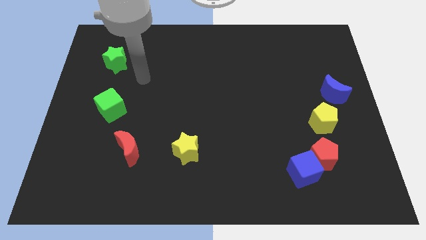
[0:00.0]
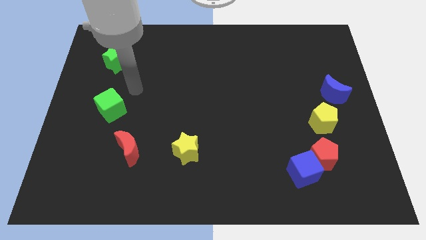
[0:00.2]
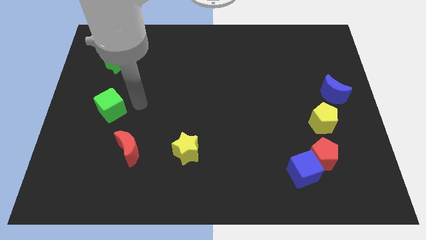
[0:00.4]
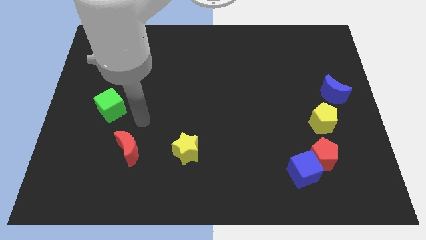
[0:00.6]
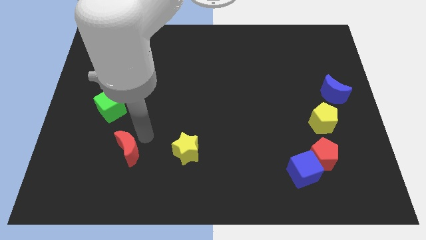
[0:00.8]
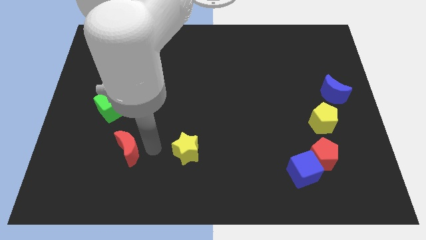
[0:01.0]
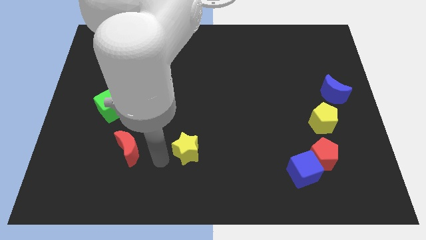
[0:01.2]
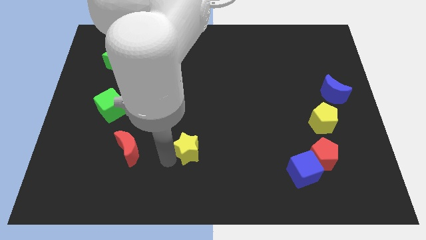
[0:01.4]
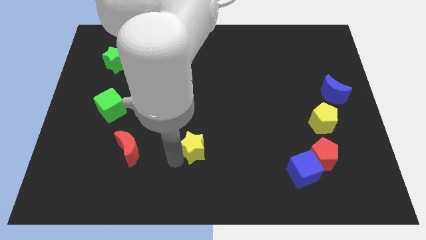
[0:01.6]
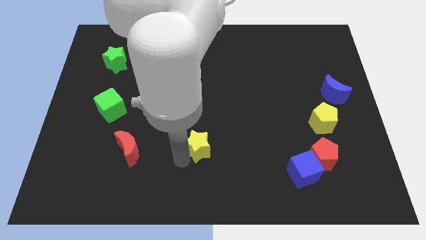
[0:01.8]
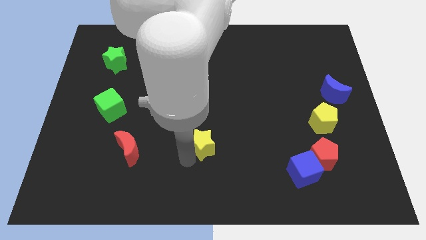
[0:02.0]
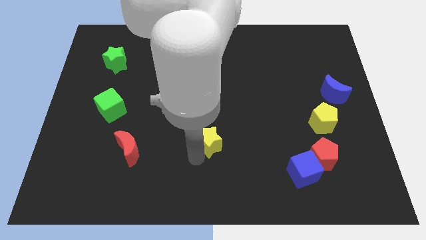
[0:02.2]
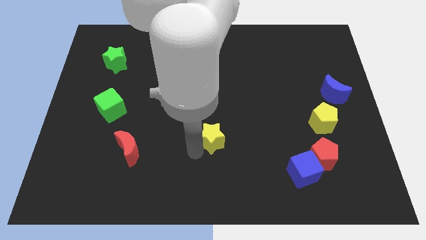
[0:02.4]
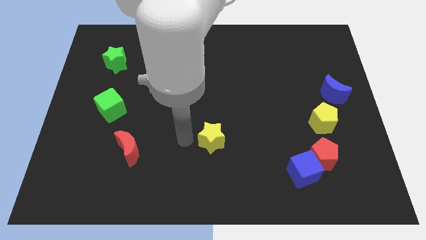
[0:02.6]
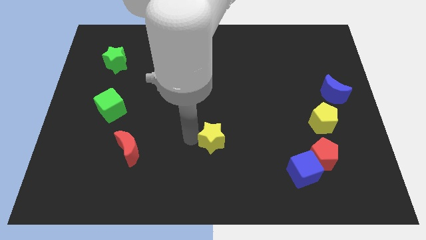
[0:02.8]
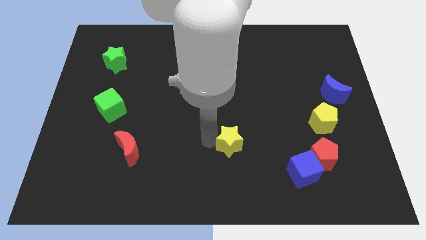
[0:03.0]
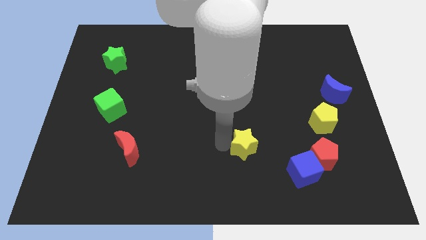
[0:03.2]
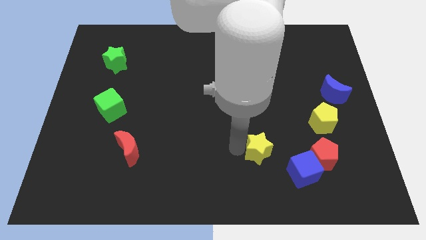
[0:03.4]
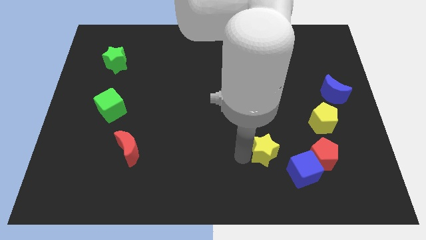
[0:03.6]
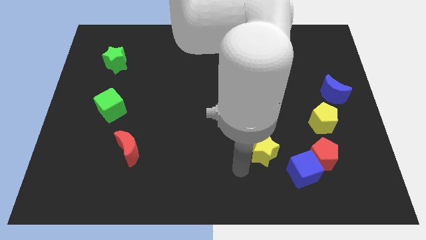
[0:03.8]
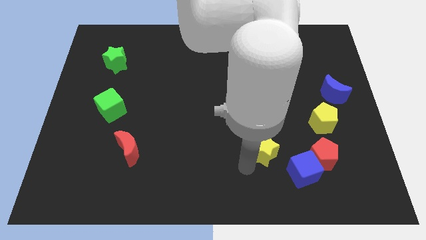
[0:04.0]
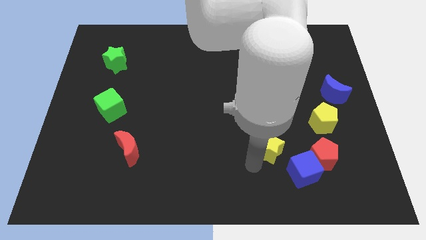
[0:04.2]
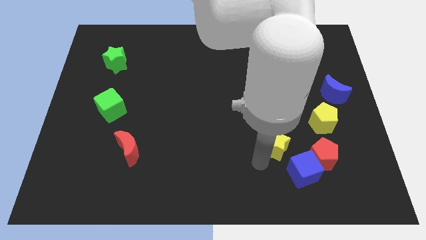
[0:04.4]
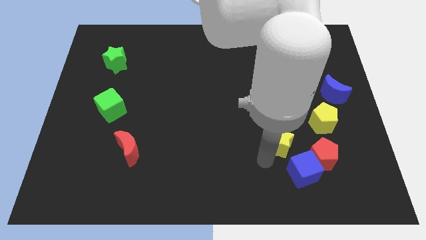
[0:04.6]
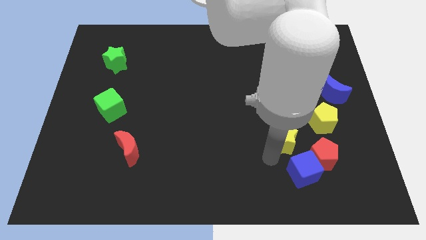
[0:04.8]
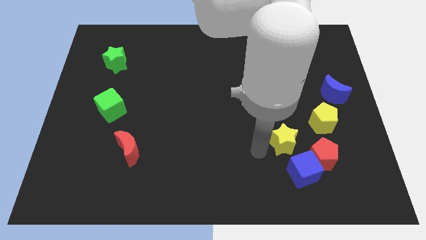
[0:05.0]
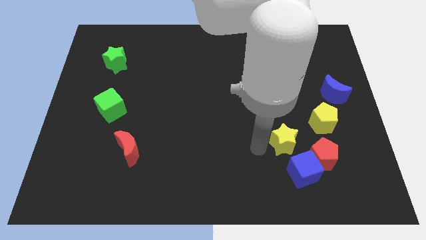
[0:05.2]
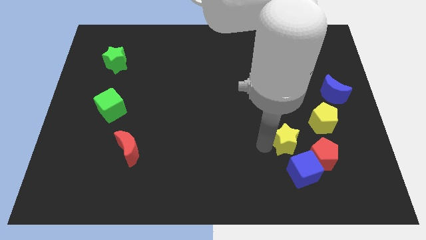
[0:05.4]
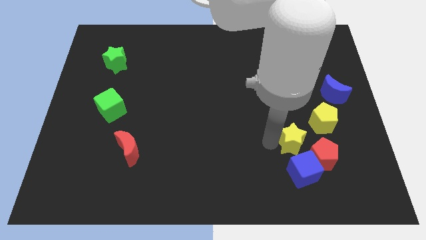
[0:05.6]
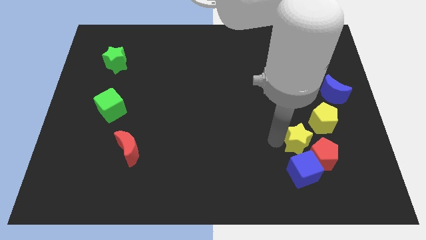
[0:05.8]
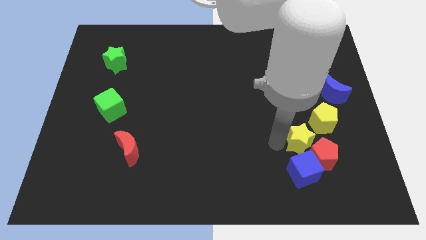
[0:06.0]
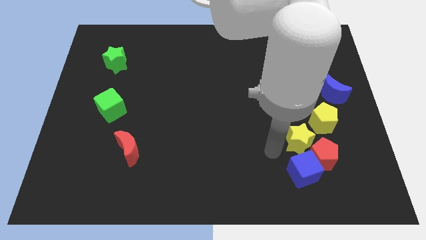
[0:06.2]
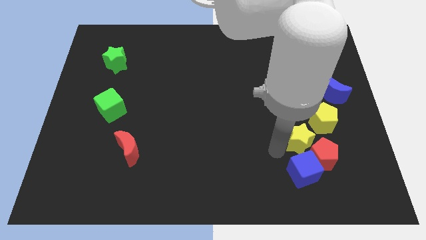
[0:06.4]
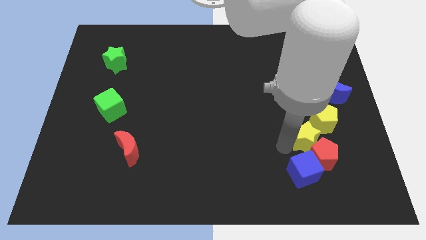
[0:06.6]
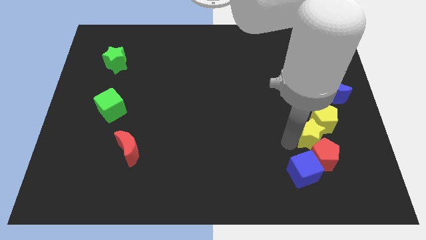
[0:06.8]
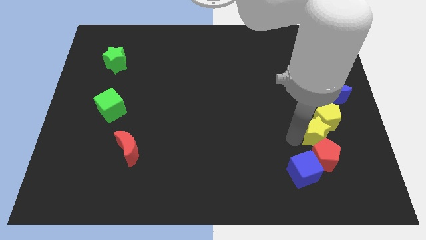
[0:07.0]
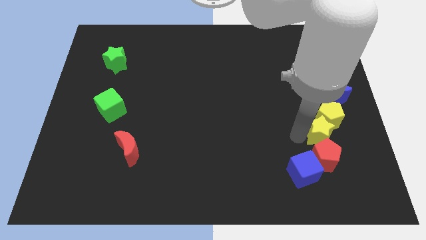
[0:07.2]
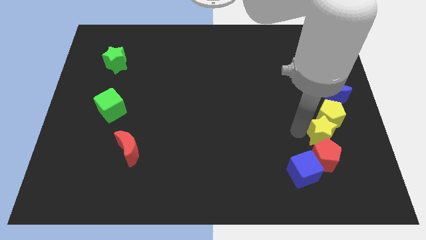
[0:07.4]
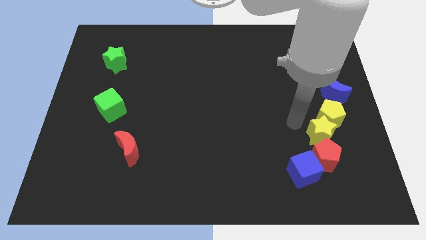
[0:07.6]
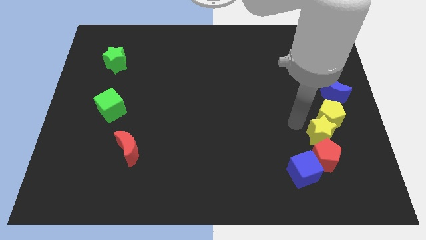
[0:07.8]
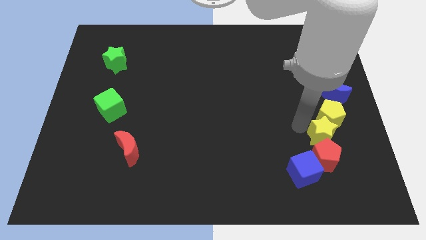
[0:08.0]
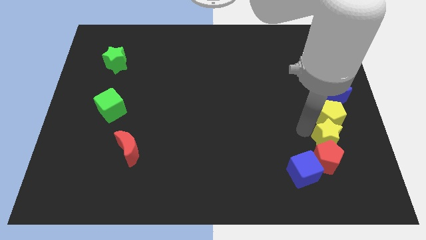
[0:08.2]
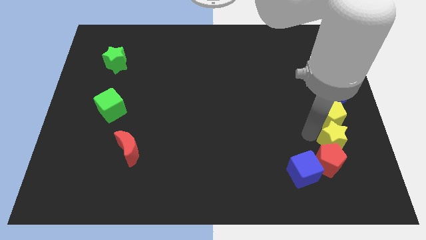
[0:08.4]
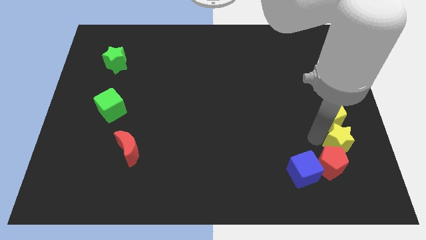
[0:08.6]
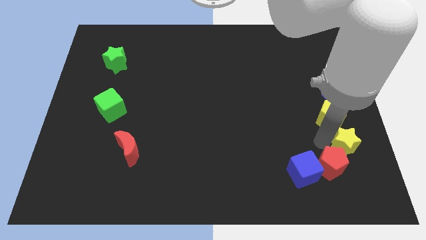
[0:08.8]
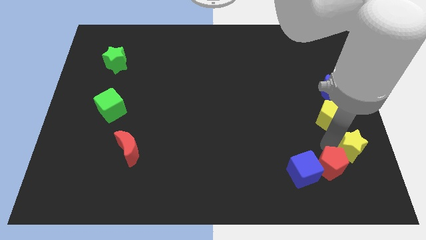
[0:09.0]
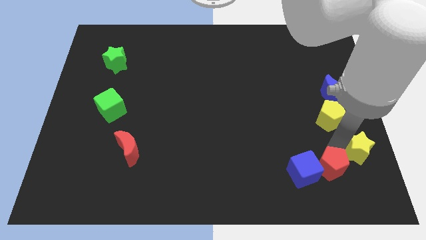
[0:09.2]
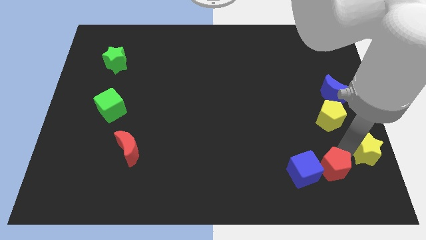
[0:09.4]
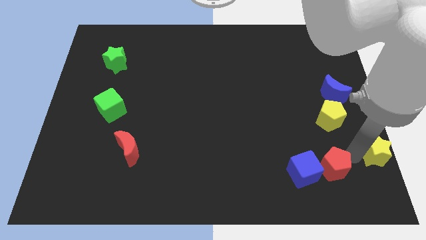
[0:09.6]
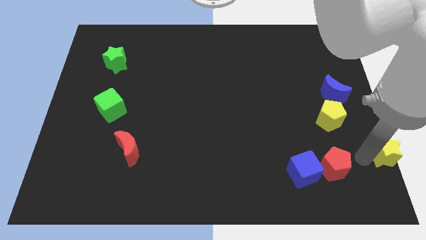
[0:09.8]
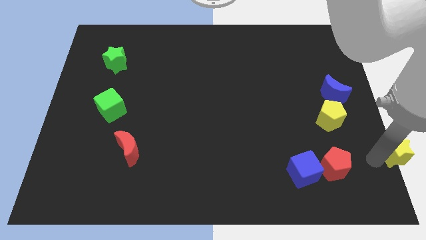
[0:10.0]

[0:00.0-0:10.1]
move the yellow star to the center right

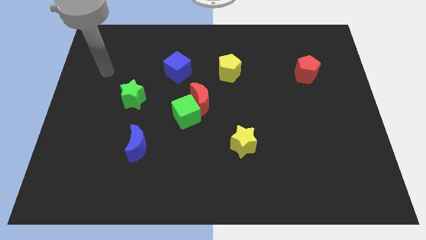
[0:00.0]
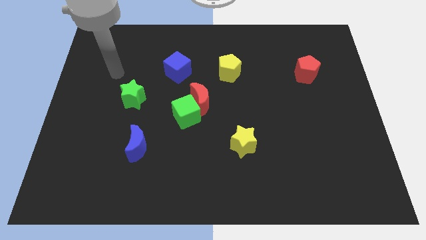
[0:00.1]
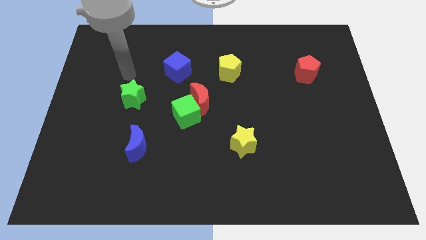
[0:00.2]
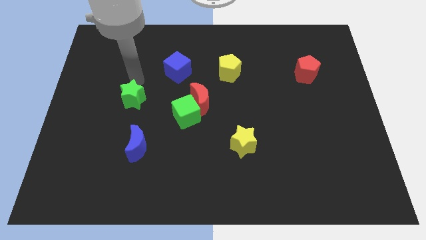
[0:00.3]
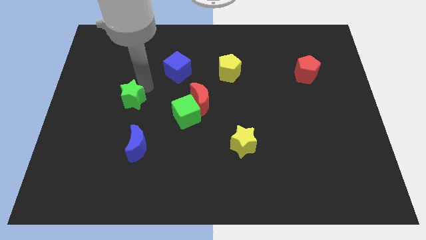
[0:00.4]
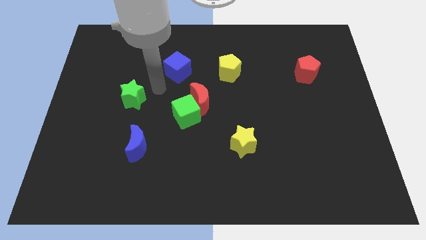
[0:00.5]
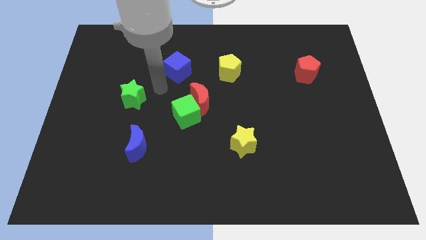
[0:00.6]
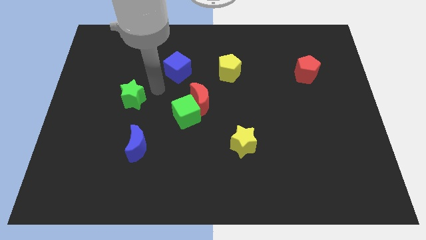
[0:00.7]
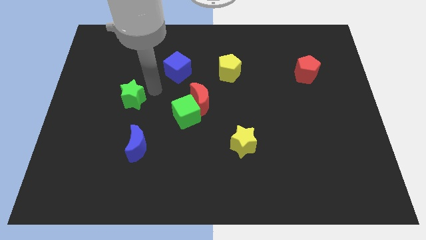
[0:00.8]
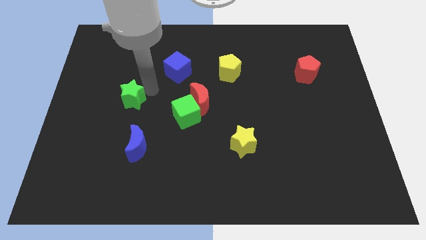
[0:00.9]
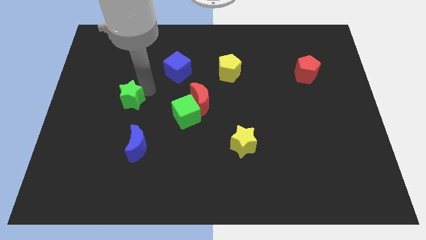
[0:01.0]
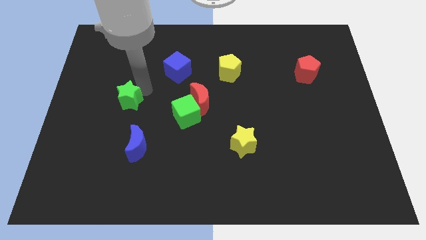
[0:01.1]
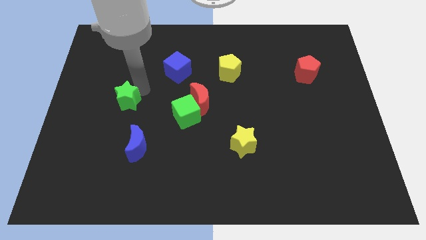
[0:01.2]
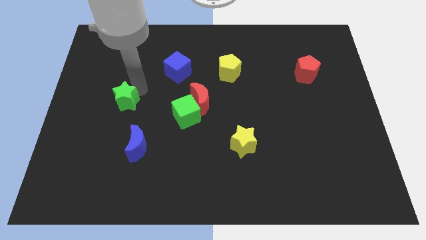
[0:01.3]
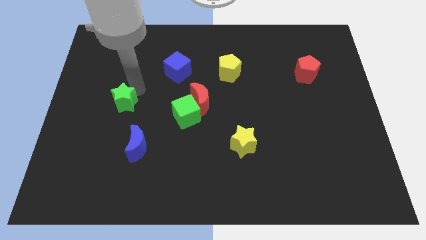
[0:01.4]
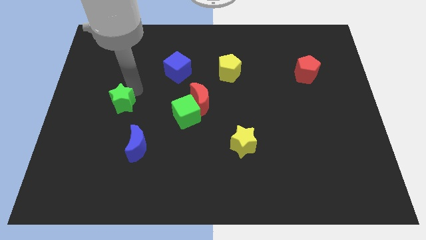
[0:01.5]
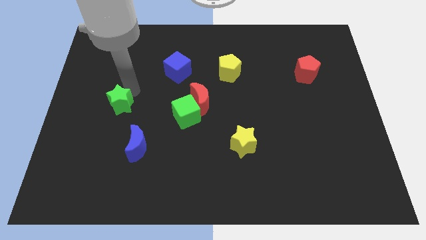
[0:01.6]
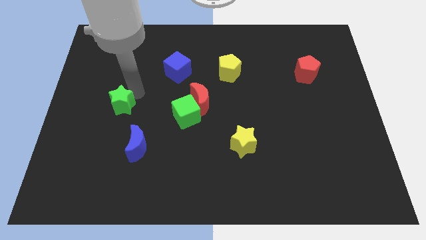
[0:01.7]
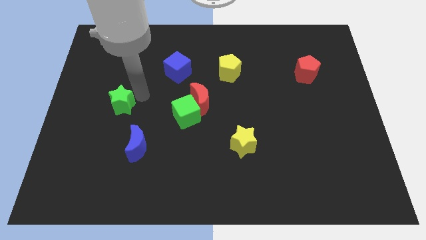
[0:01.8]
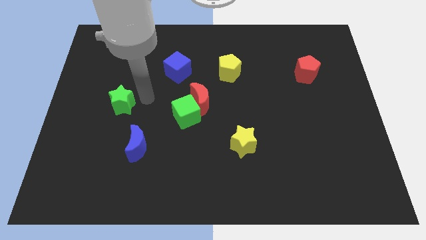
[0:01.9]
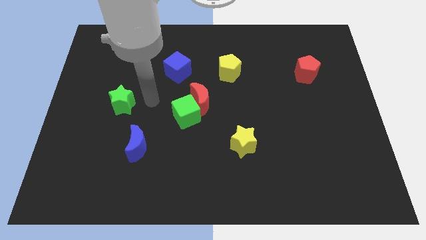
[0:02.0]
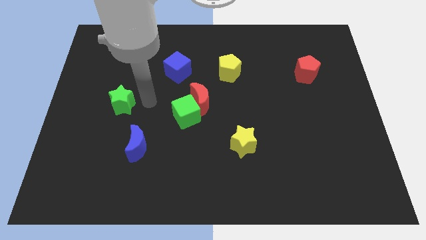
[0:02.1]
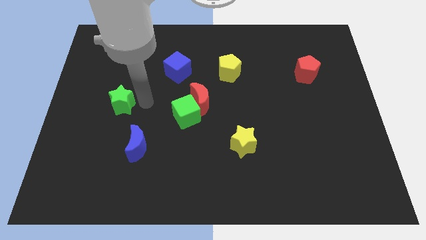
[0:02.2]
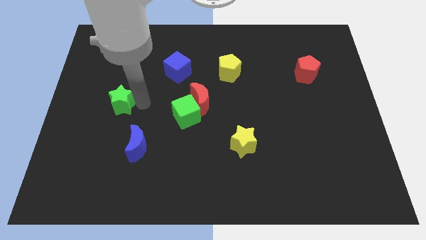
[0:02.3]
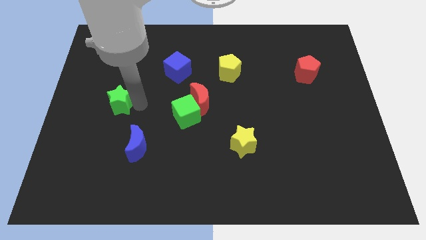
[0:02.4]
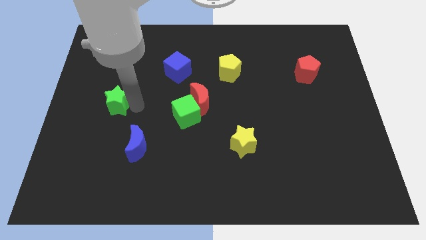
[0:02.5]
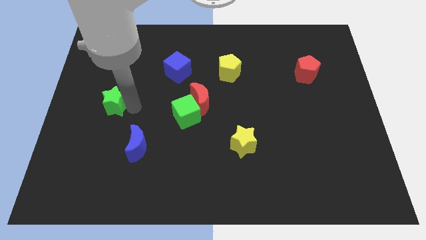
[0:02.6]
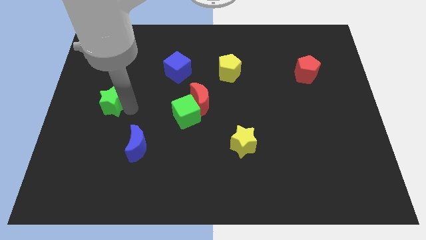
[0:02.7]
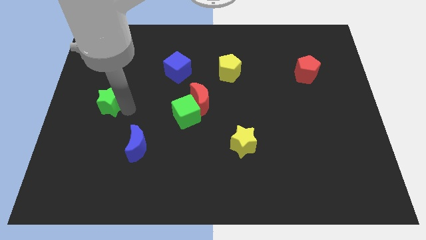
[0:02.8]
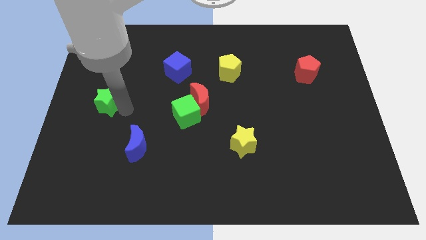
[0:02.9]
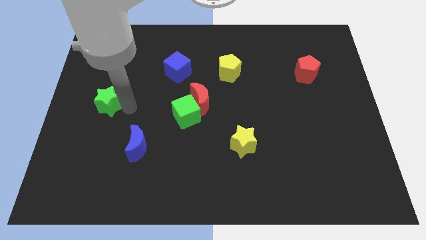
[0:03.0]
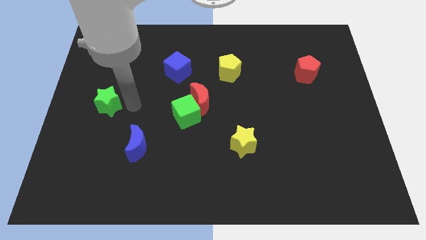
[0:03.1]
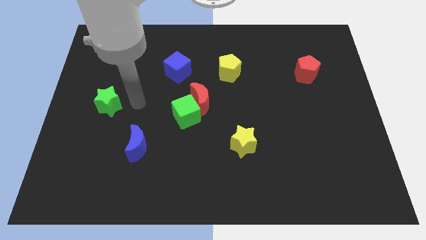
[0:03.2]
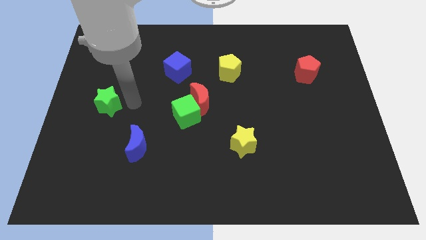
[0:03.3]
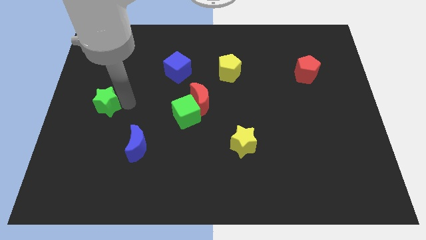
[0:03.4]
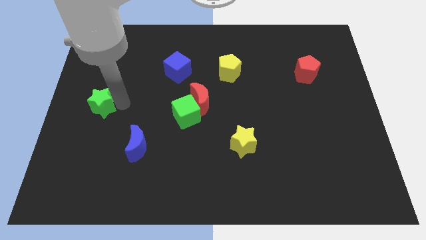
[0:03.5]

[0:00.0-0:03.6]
slide the green star to the left side
